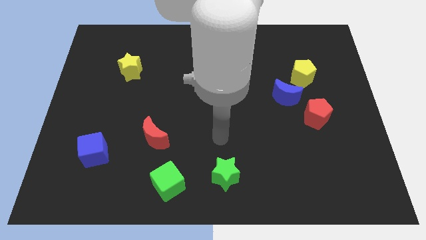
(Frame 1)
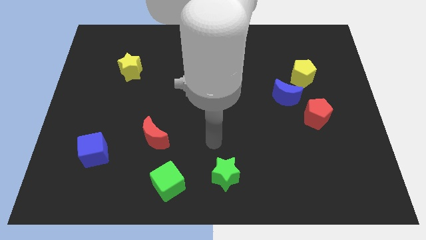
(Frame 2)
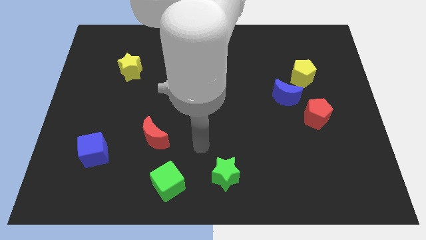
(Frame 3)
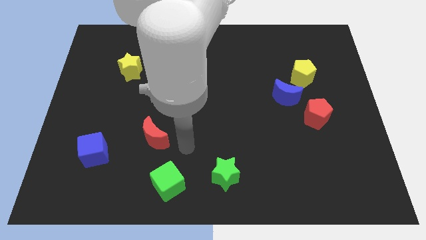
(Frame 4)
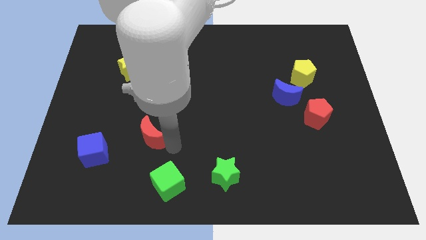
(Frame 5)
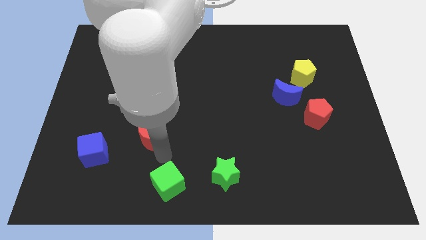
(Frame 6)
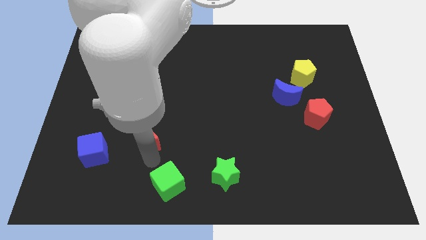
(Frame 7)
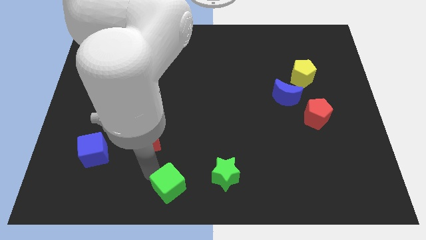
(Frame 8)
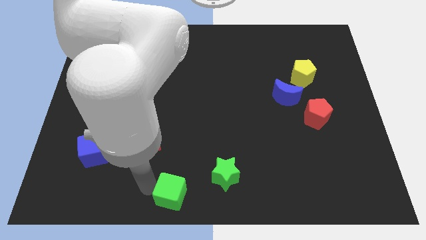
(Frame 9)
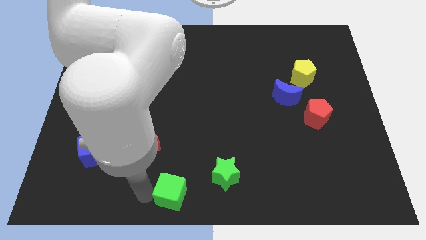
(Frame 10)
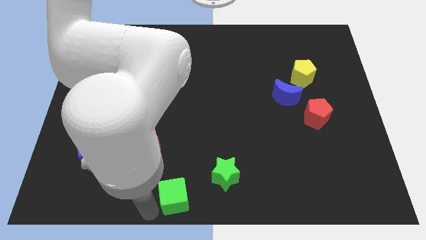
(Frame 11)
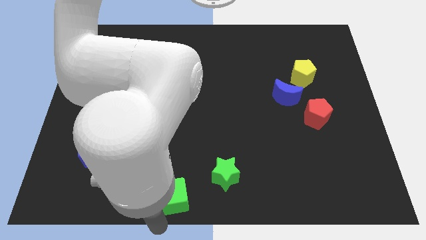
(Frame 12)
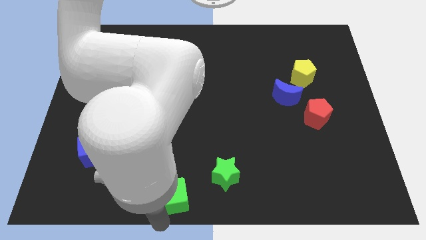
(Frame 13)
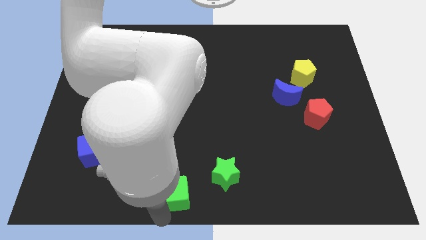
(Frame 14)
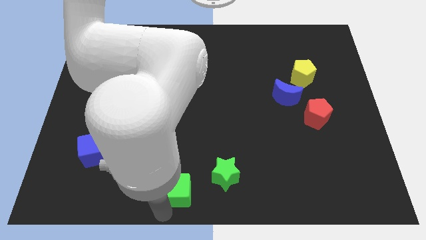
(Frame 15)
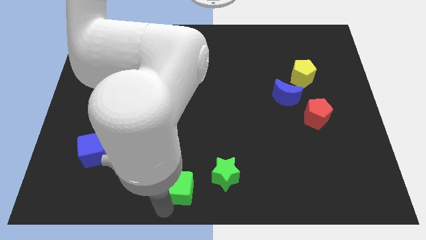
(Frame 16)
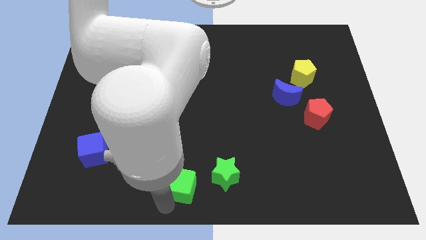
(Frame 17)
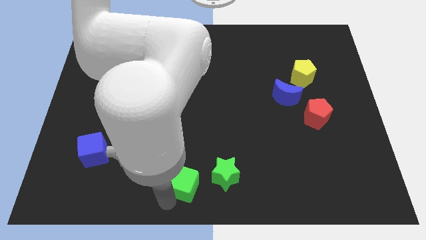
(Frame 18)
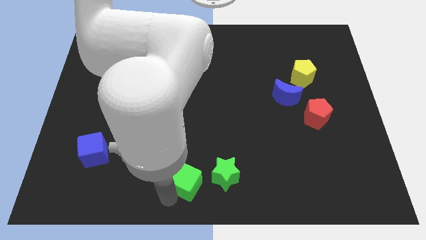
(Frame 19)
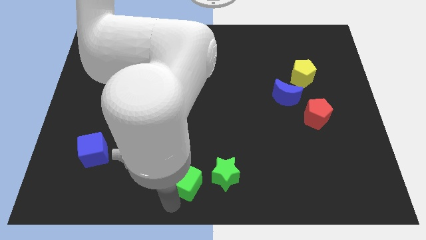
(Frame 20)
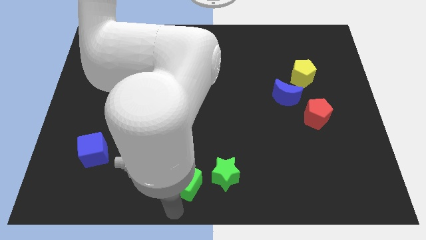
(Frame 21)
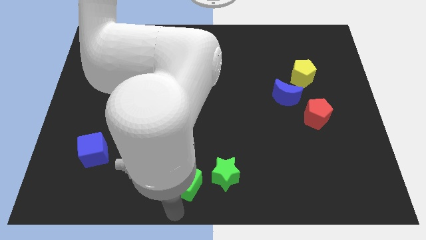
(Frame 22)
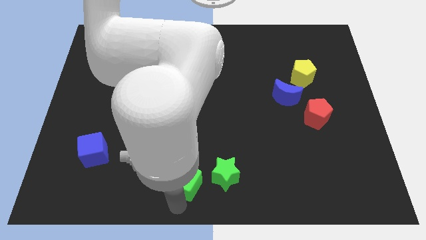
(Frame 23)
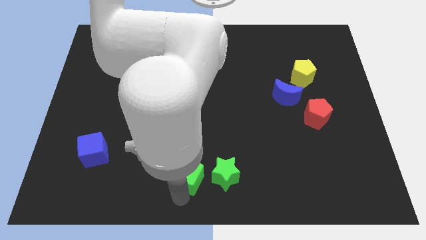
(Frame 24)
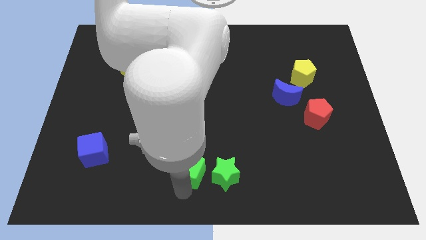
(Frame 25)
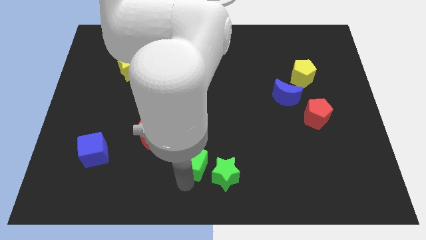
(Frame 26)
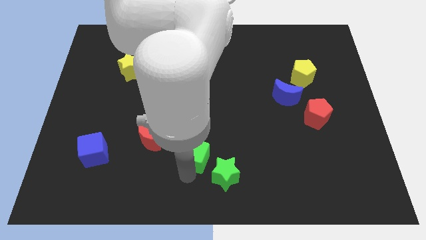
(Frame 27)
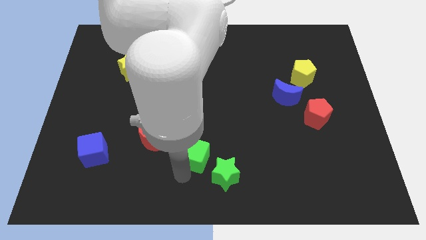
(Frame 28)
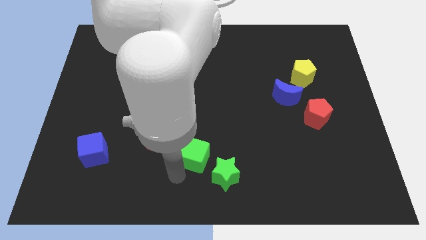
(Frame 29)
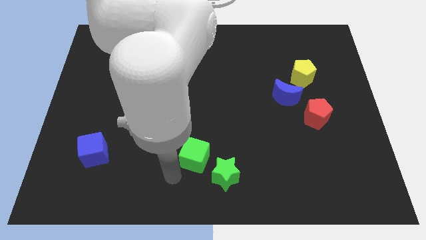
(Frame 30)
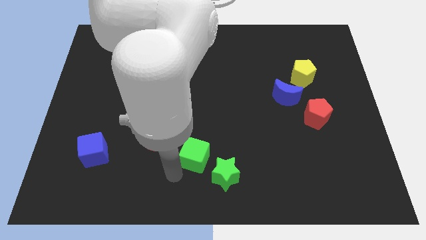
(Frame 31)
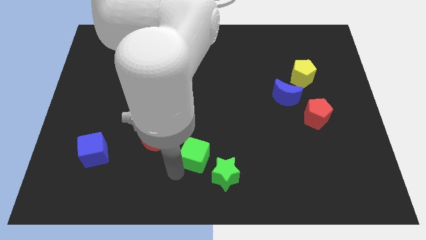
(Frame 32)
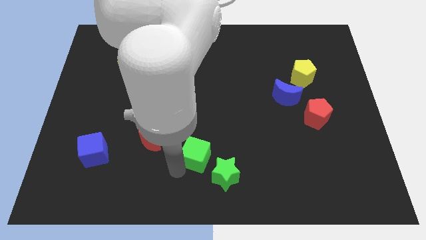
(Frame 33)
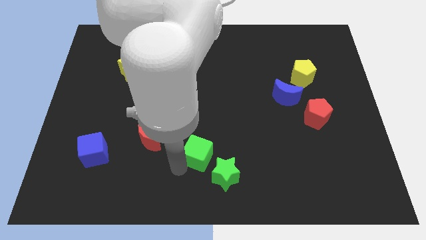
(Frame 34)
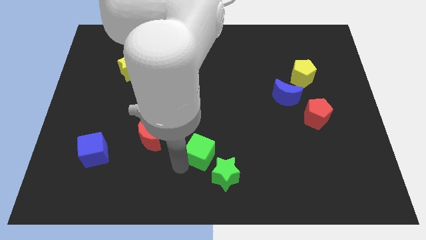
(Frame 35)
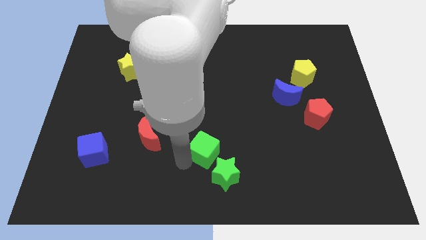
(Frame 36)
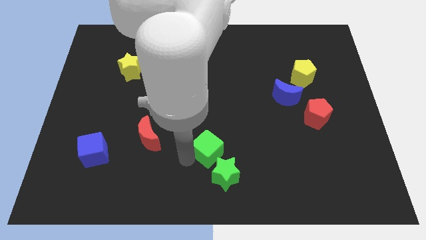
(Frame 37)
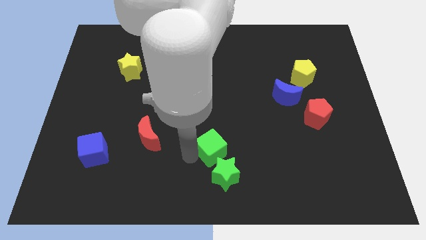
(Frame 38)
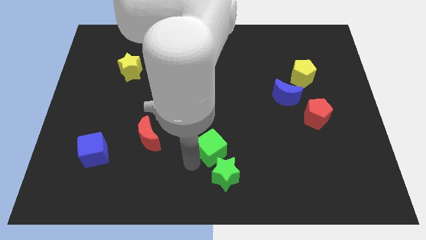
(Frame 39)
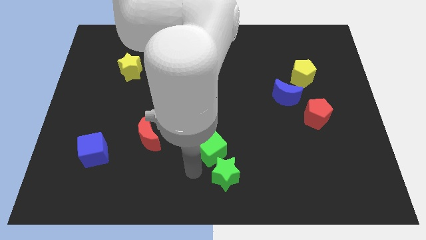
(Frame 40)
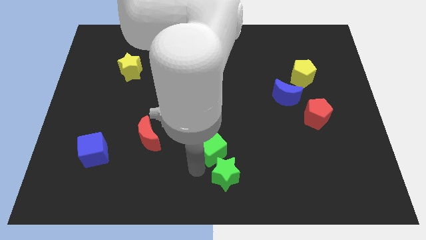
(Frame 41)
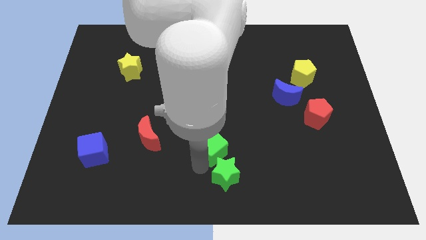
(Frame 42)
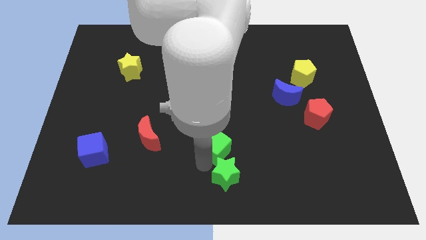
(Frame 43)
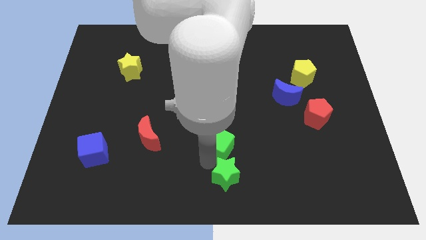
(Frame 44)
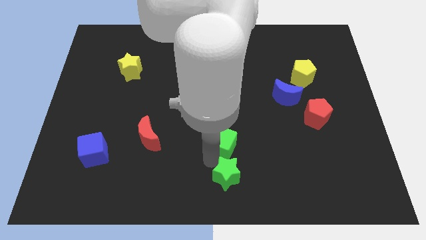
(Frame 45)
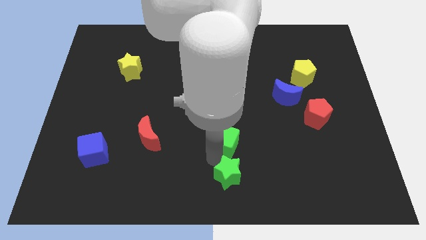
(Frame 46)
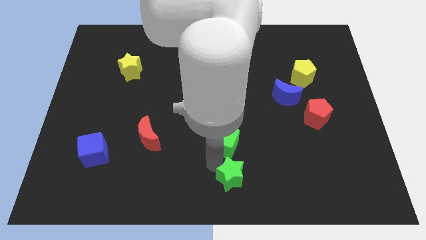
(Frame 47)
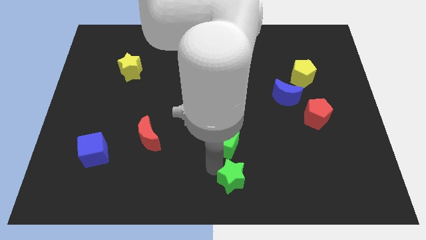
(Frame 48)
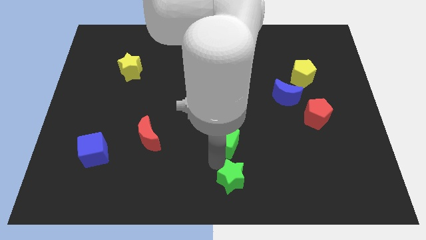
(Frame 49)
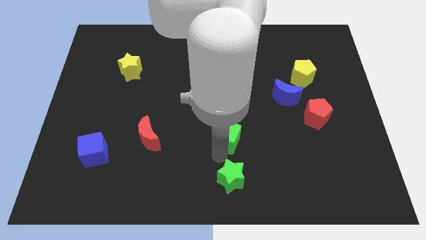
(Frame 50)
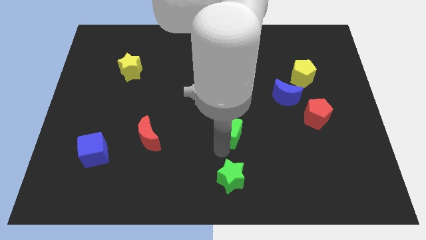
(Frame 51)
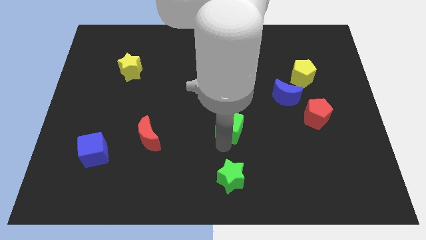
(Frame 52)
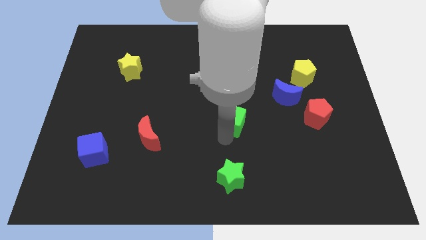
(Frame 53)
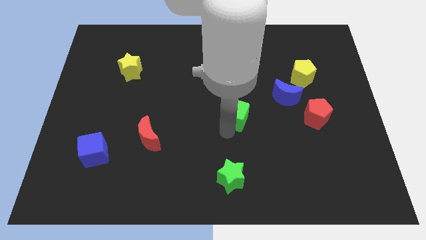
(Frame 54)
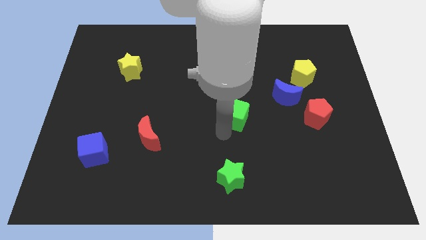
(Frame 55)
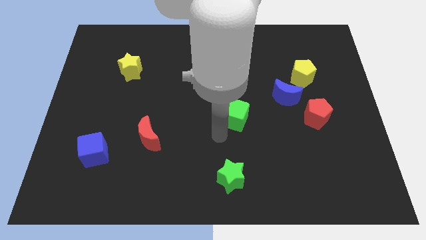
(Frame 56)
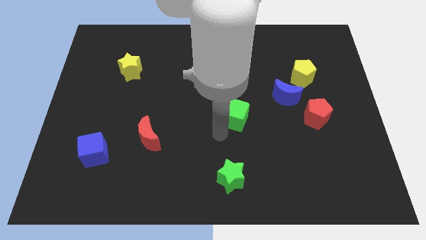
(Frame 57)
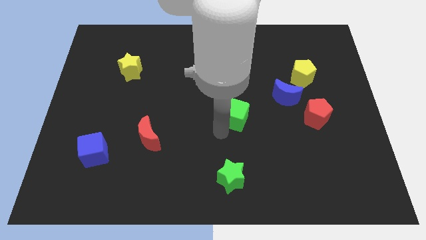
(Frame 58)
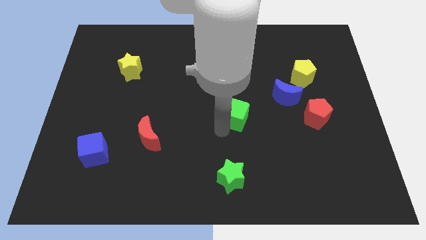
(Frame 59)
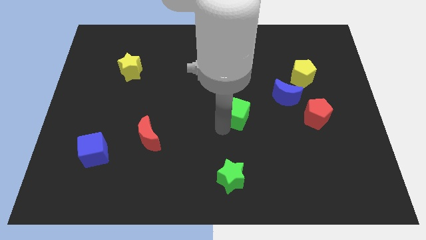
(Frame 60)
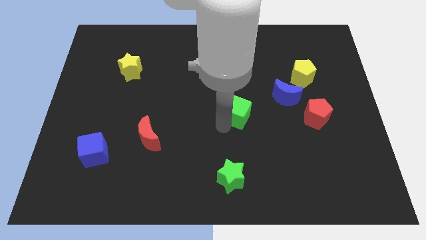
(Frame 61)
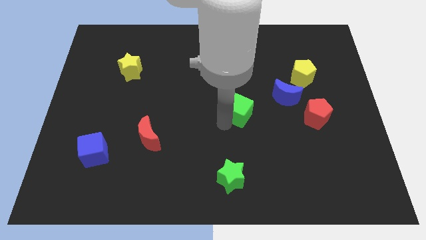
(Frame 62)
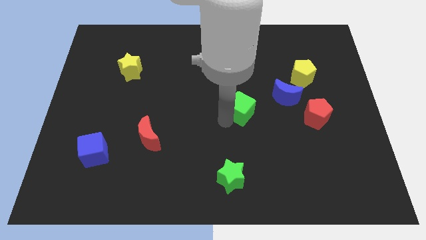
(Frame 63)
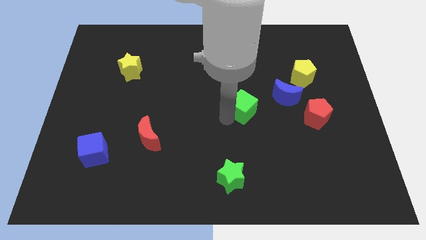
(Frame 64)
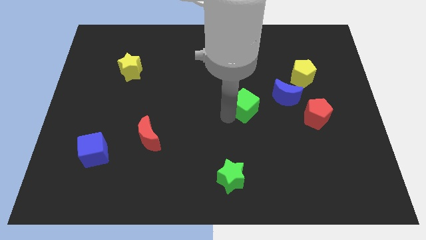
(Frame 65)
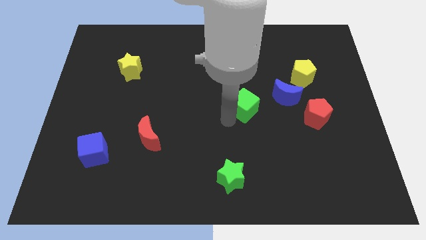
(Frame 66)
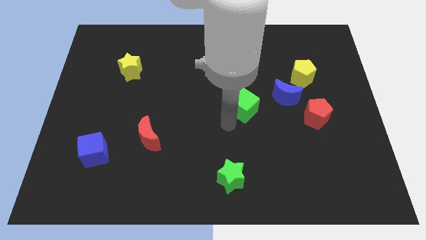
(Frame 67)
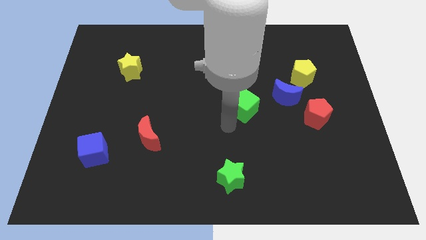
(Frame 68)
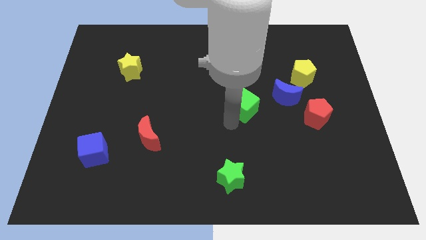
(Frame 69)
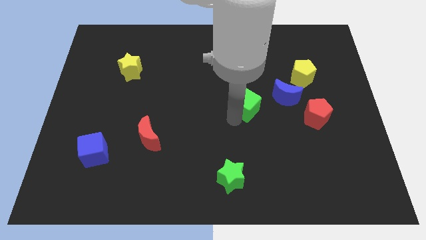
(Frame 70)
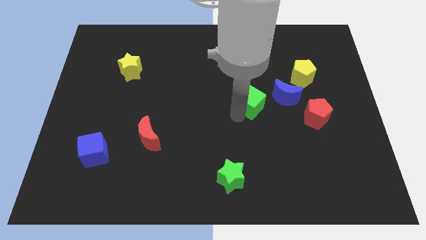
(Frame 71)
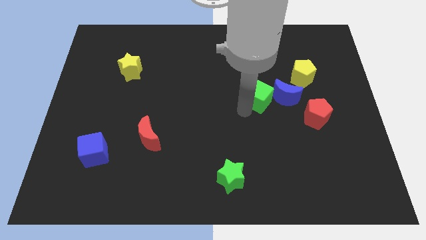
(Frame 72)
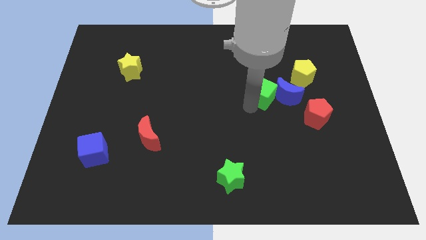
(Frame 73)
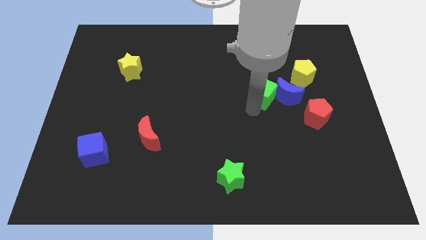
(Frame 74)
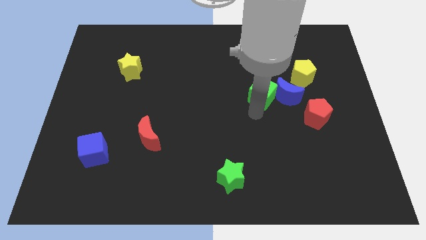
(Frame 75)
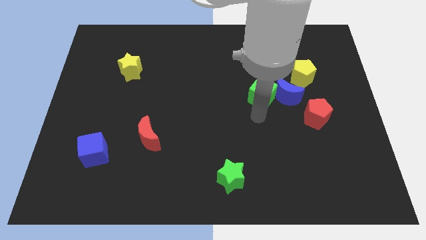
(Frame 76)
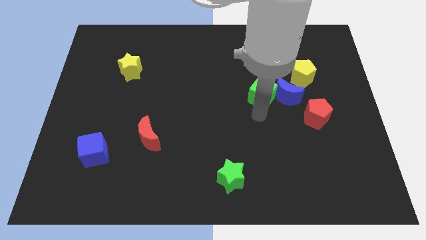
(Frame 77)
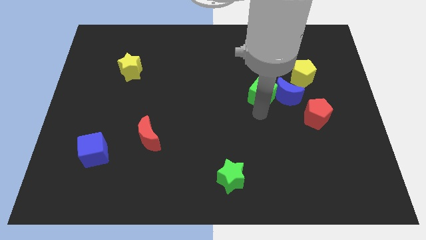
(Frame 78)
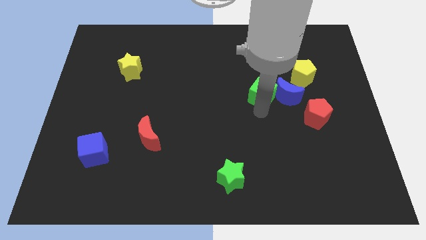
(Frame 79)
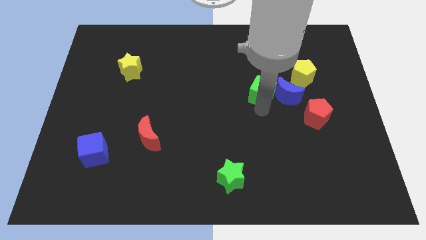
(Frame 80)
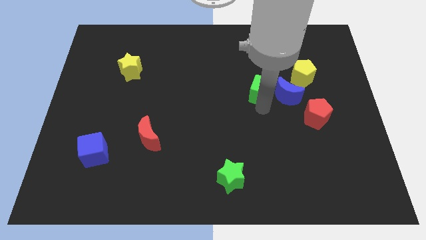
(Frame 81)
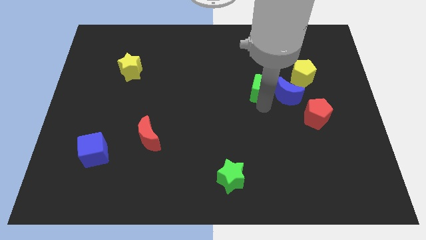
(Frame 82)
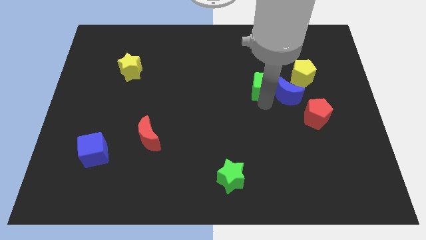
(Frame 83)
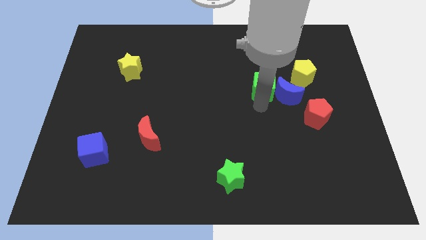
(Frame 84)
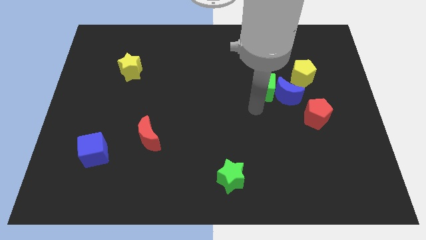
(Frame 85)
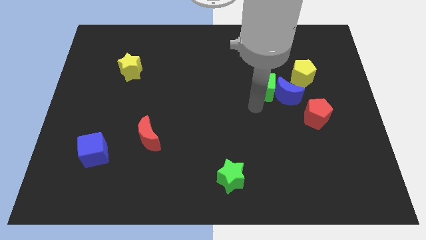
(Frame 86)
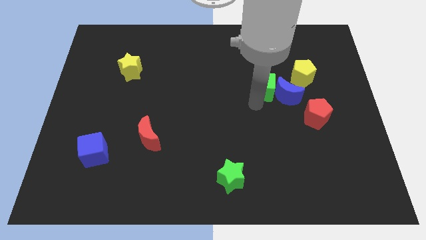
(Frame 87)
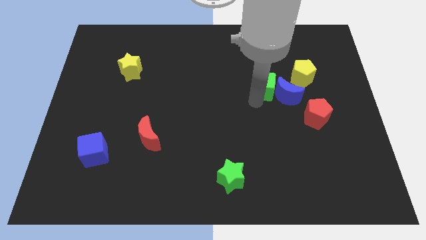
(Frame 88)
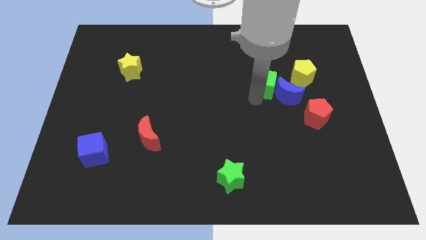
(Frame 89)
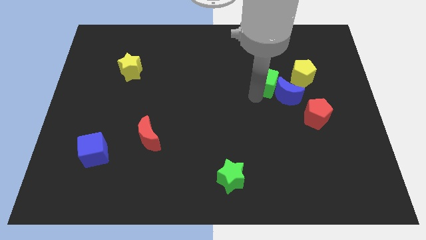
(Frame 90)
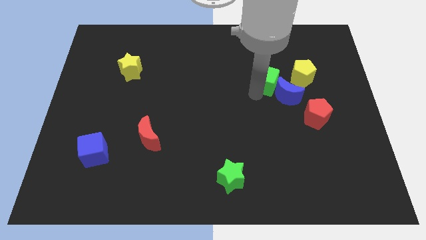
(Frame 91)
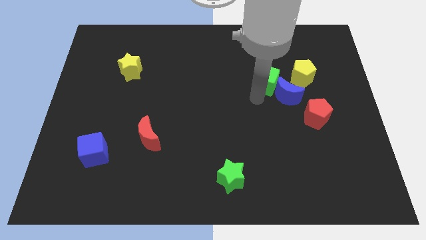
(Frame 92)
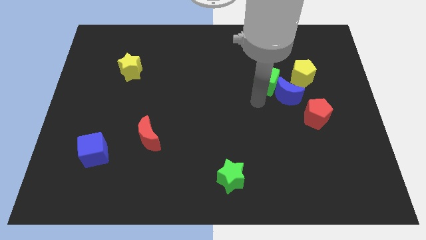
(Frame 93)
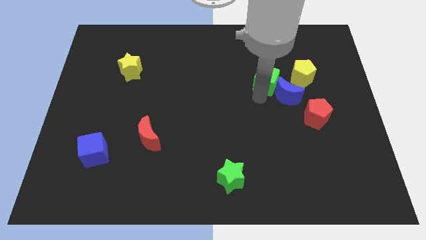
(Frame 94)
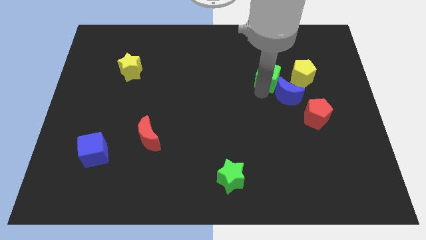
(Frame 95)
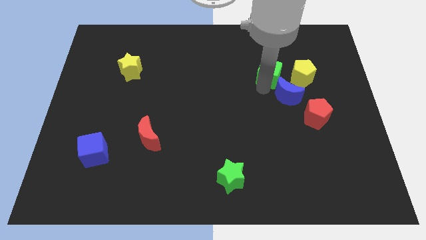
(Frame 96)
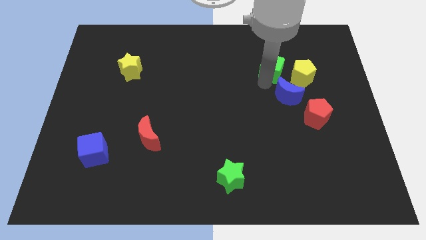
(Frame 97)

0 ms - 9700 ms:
put the green cube to the top left of the yellow pentagon
